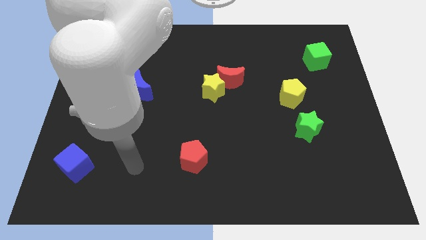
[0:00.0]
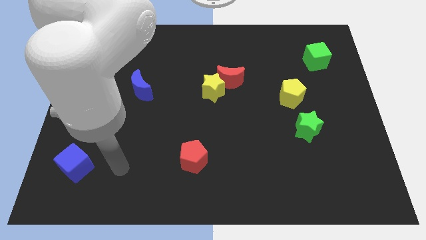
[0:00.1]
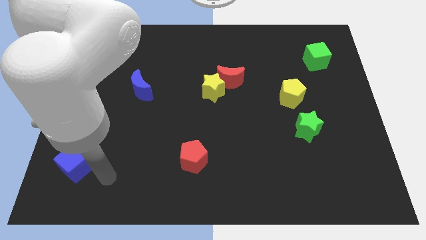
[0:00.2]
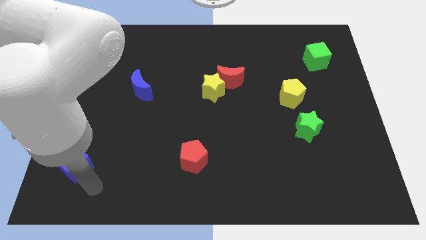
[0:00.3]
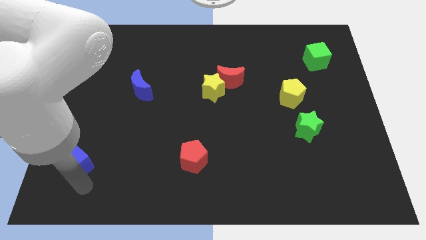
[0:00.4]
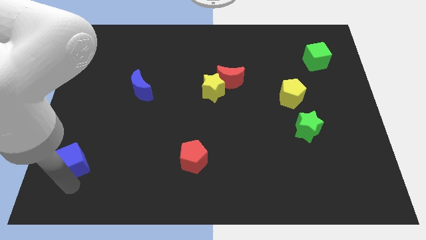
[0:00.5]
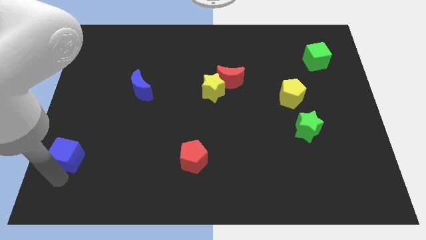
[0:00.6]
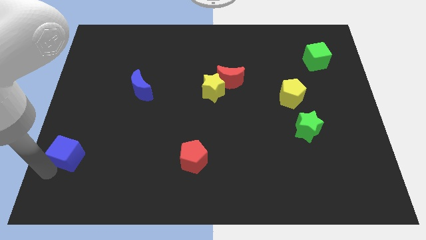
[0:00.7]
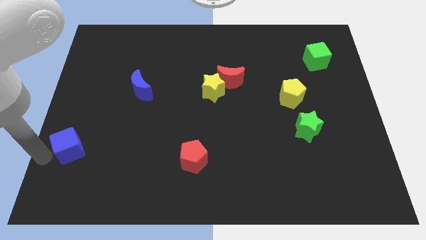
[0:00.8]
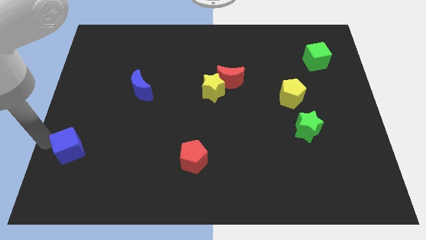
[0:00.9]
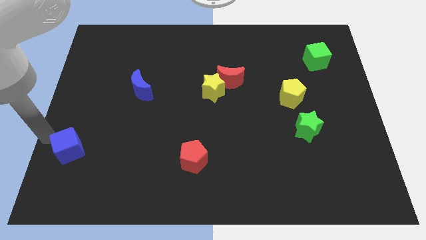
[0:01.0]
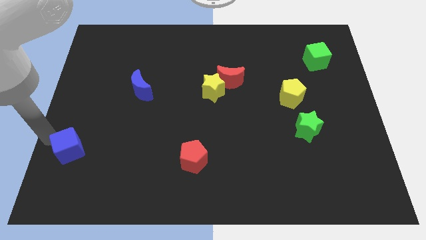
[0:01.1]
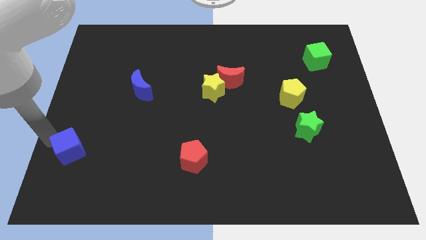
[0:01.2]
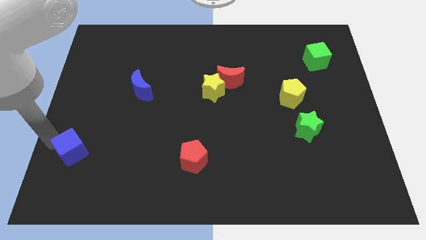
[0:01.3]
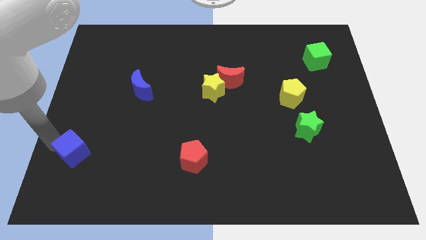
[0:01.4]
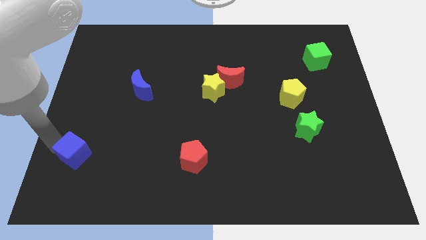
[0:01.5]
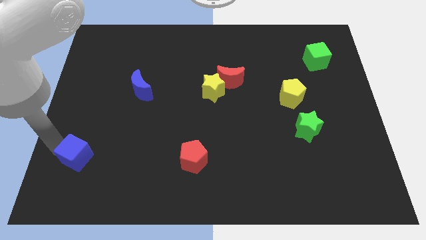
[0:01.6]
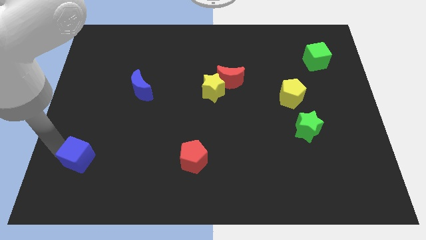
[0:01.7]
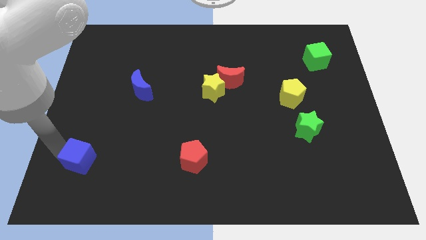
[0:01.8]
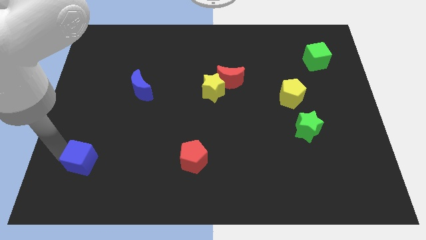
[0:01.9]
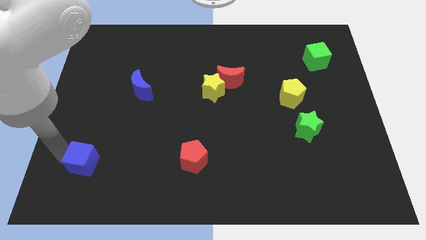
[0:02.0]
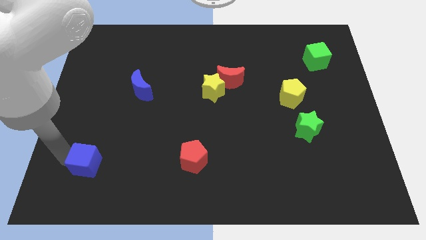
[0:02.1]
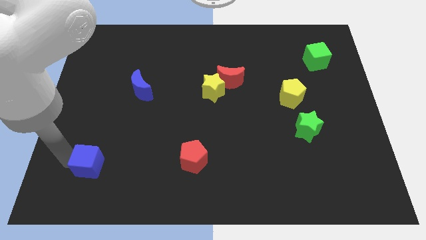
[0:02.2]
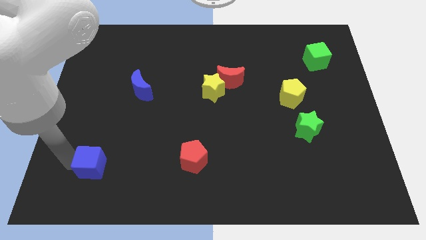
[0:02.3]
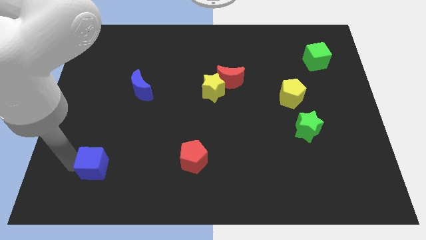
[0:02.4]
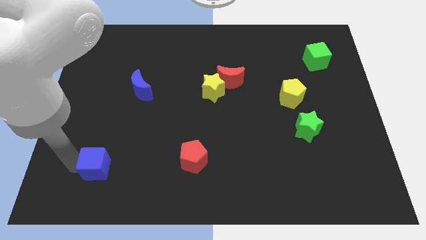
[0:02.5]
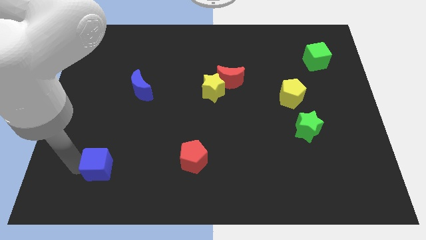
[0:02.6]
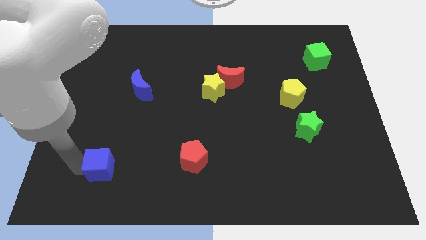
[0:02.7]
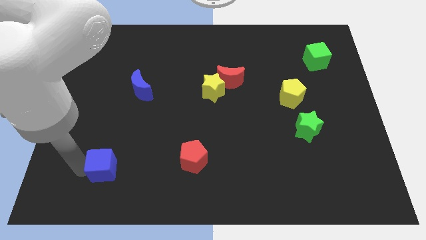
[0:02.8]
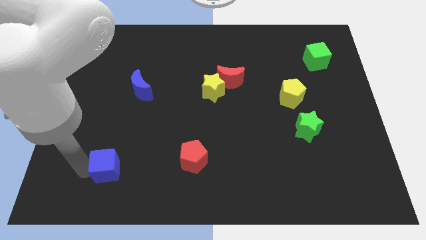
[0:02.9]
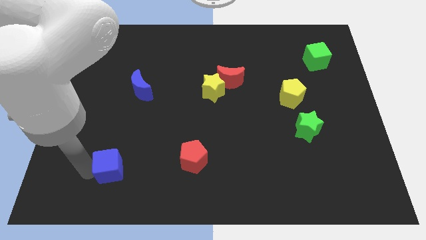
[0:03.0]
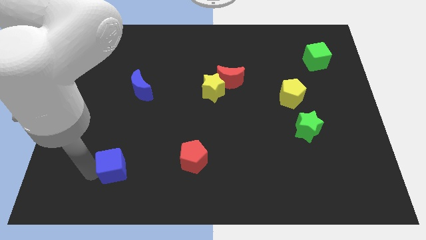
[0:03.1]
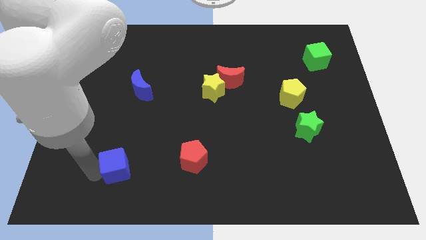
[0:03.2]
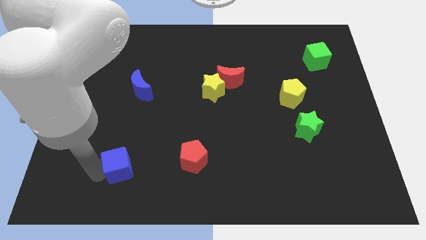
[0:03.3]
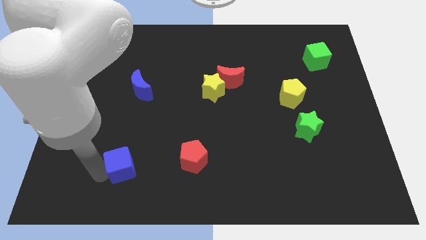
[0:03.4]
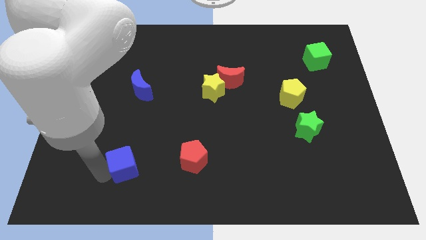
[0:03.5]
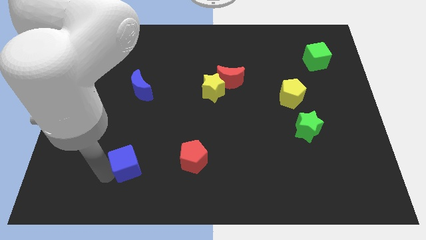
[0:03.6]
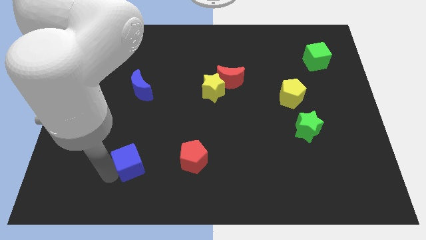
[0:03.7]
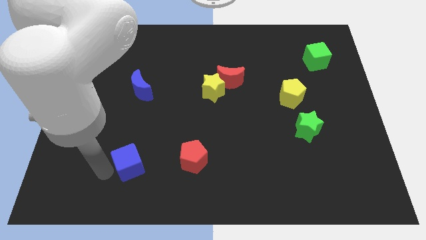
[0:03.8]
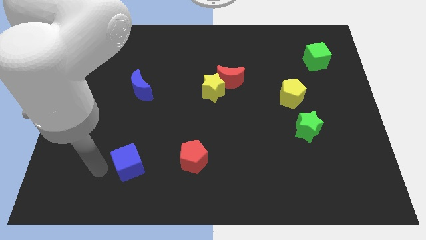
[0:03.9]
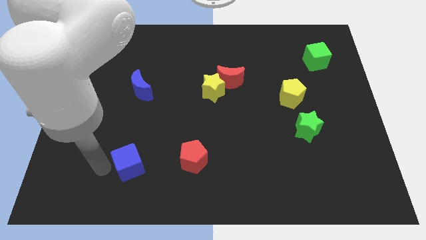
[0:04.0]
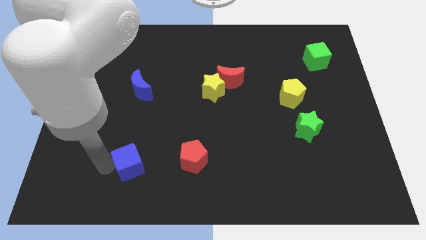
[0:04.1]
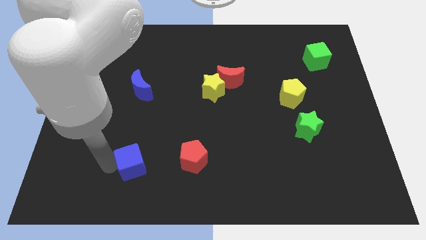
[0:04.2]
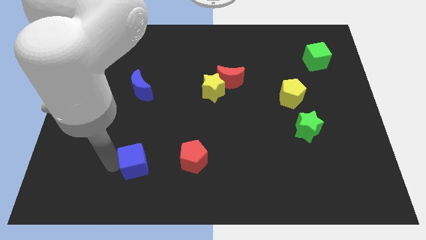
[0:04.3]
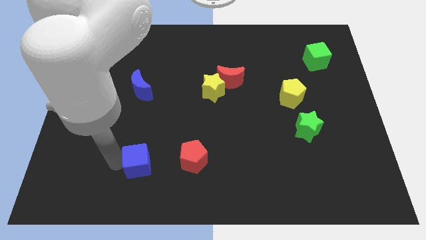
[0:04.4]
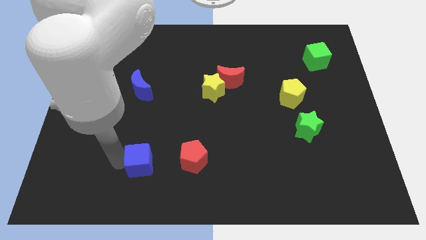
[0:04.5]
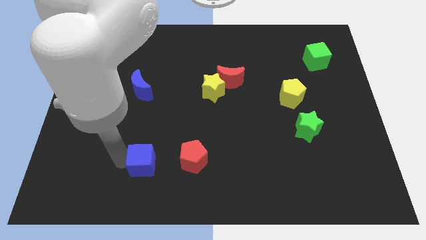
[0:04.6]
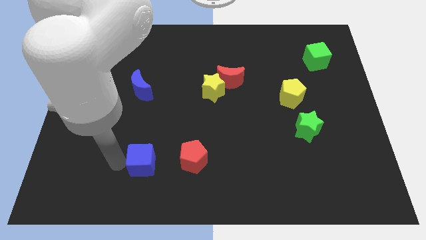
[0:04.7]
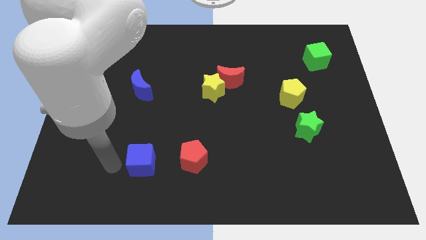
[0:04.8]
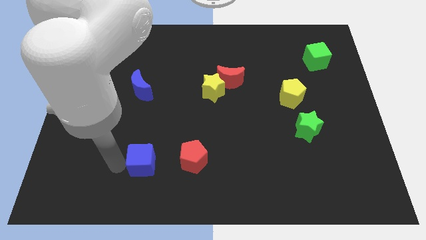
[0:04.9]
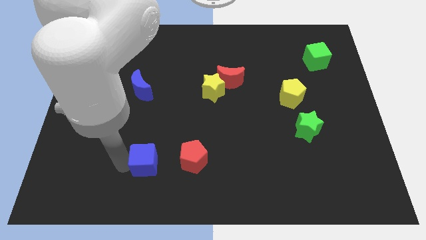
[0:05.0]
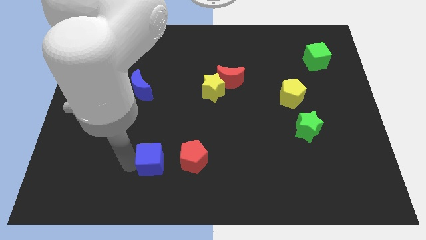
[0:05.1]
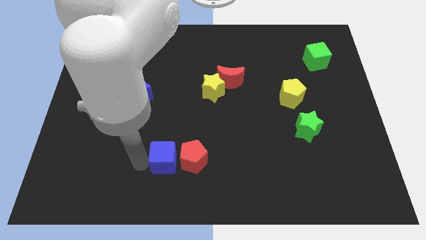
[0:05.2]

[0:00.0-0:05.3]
move the blue cube towards the red pentagon
